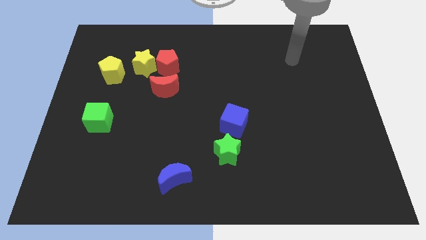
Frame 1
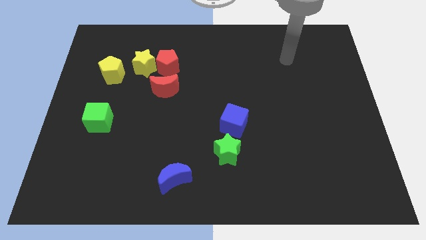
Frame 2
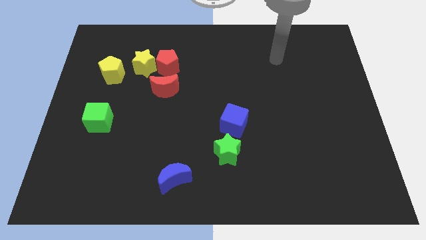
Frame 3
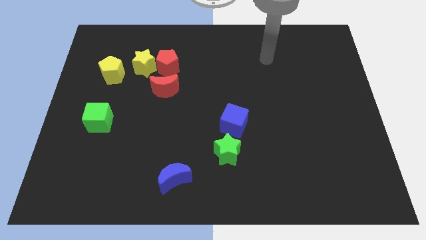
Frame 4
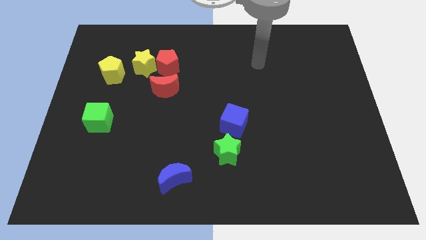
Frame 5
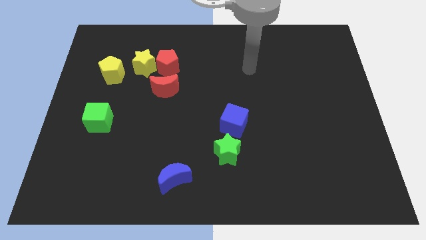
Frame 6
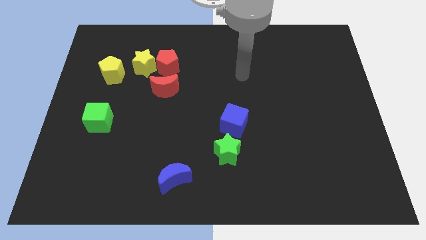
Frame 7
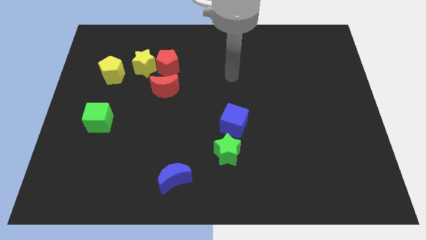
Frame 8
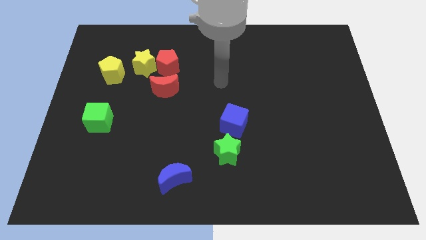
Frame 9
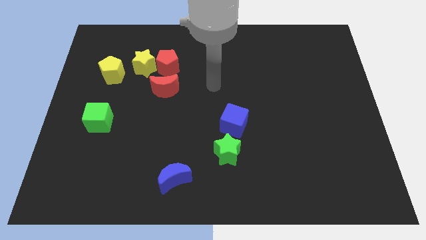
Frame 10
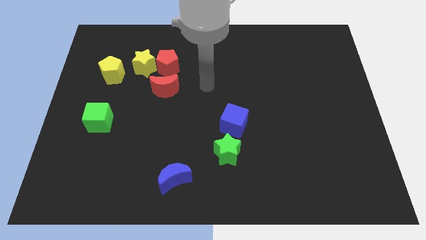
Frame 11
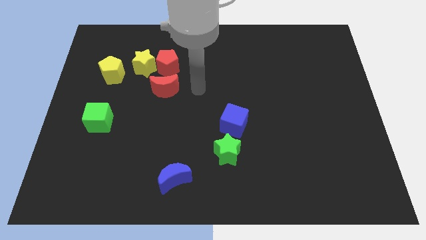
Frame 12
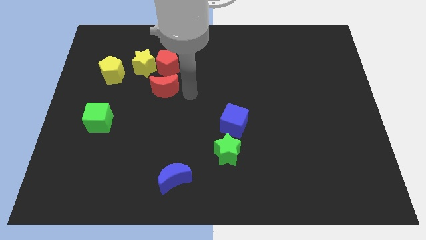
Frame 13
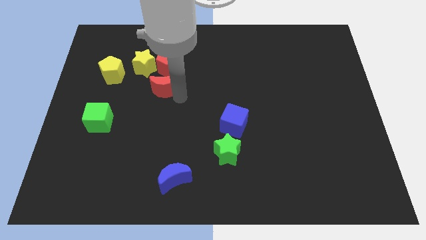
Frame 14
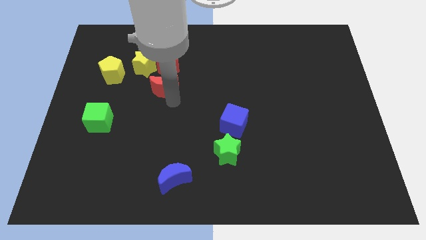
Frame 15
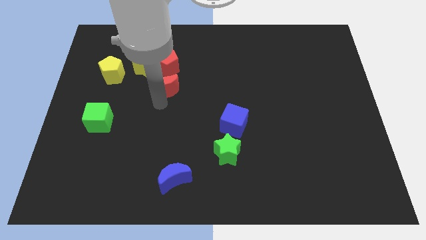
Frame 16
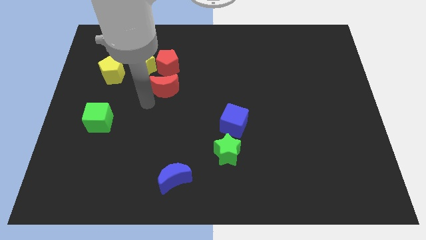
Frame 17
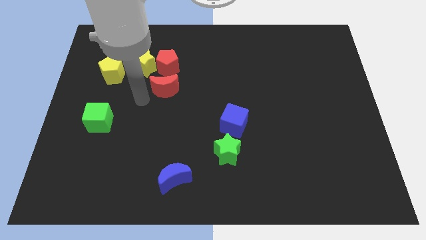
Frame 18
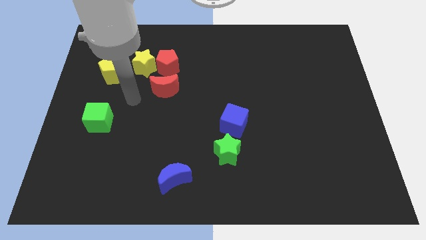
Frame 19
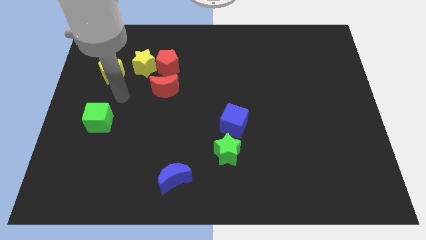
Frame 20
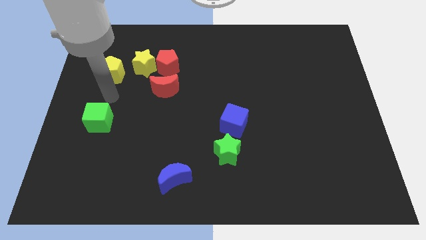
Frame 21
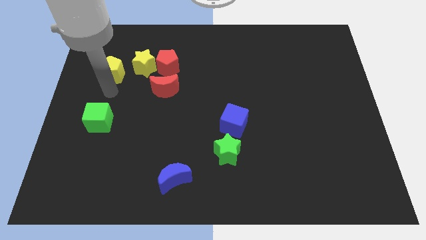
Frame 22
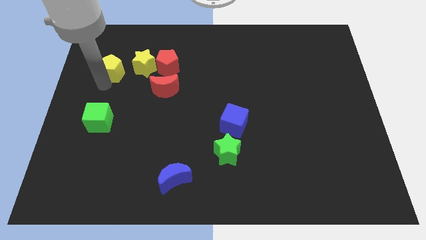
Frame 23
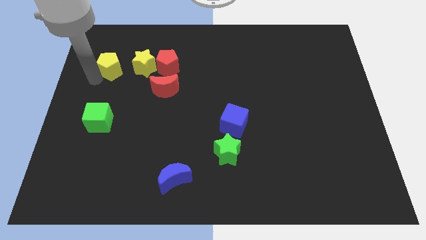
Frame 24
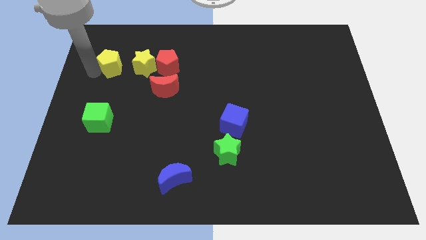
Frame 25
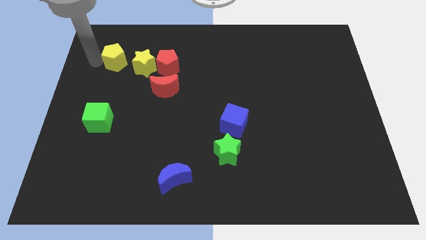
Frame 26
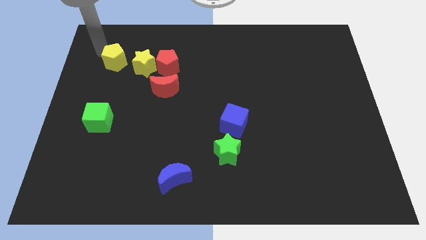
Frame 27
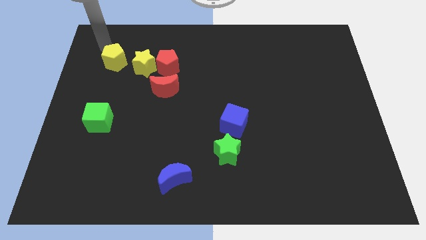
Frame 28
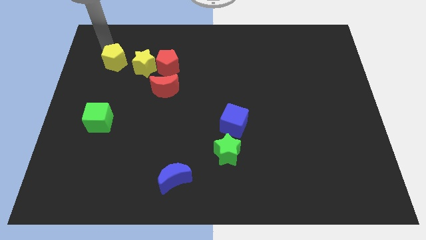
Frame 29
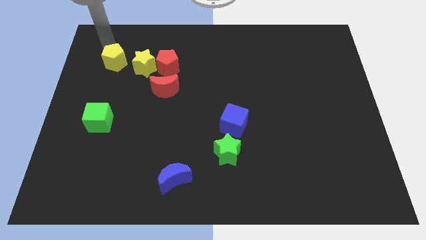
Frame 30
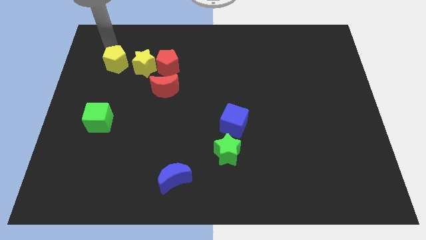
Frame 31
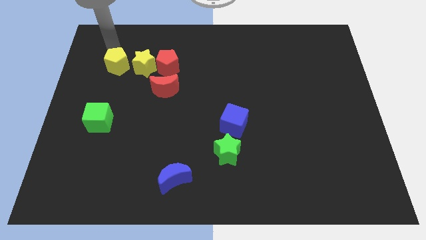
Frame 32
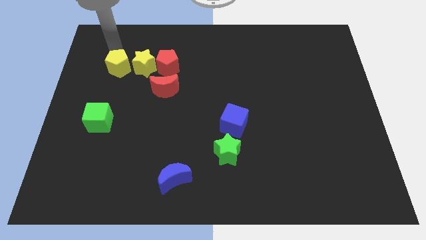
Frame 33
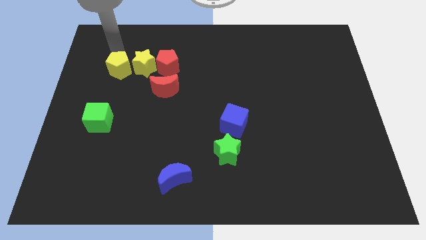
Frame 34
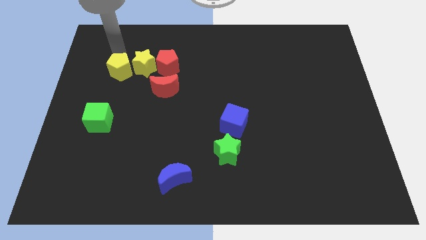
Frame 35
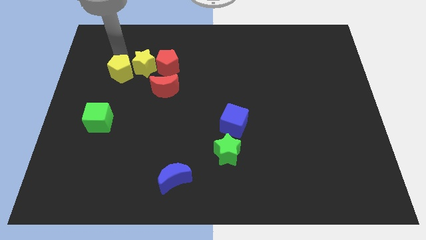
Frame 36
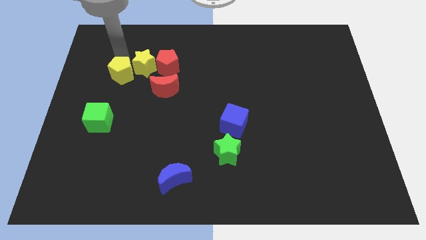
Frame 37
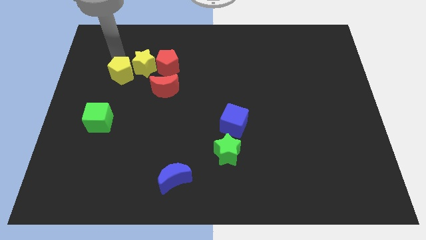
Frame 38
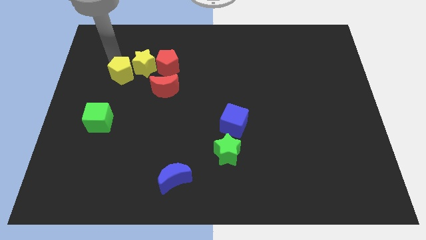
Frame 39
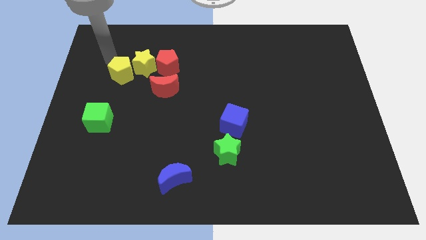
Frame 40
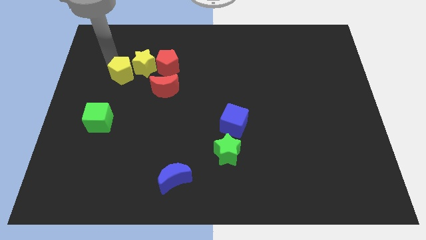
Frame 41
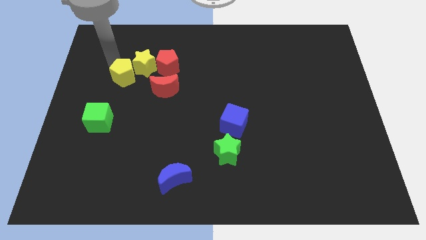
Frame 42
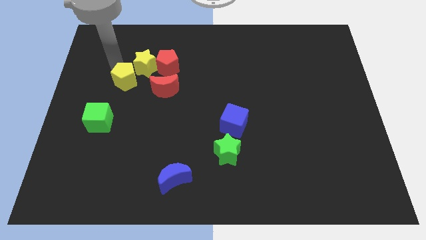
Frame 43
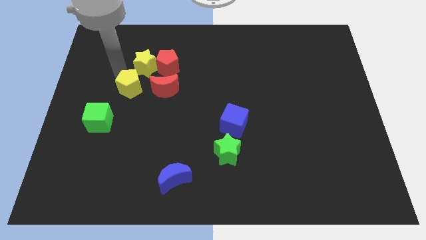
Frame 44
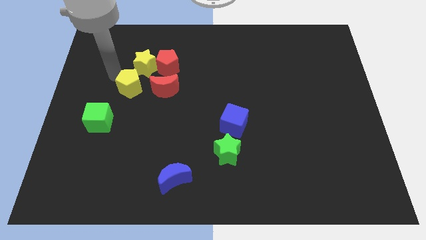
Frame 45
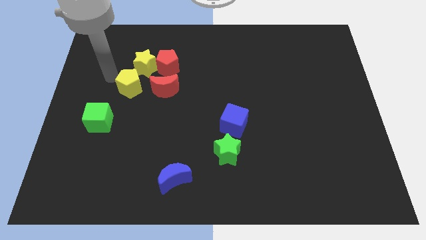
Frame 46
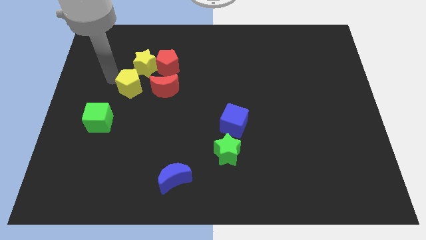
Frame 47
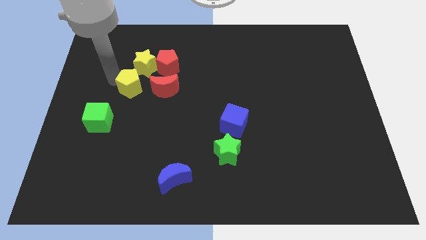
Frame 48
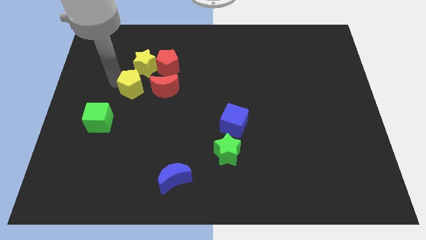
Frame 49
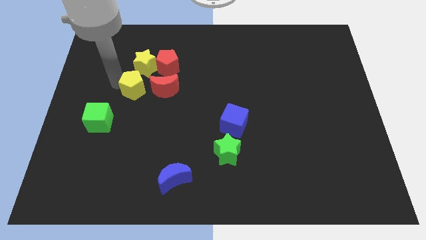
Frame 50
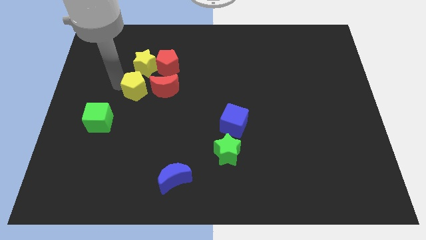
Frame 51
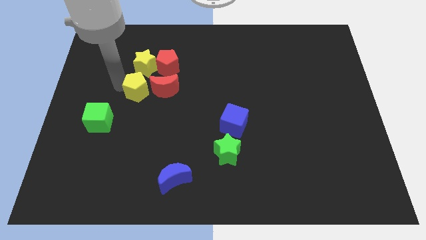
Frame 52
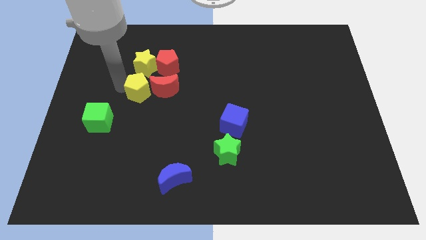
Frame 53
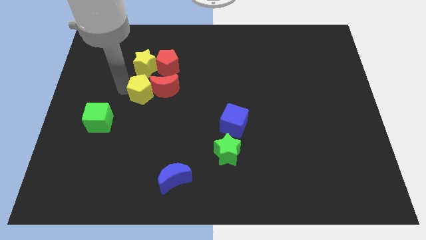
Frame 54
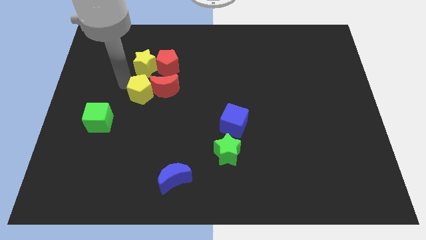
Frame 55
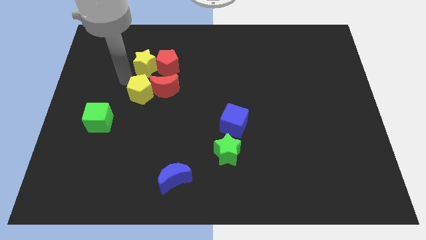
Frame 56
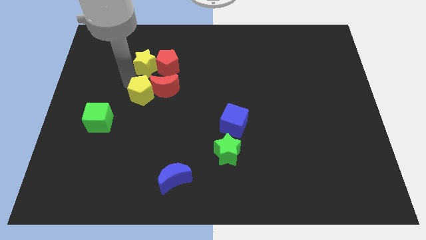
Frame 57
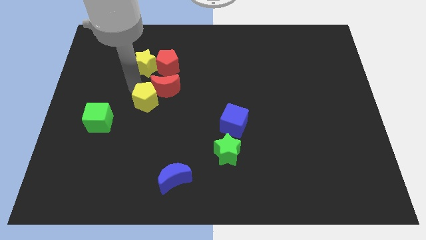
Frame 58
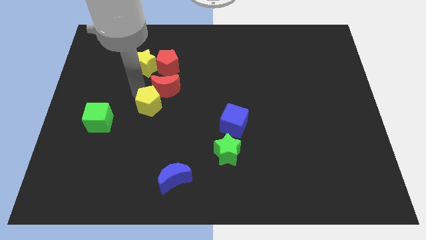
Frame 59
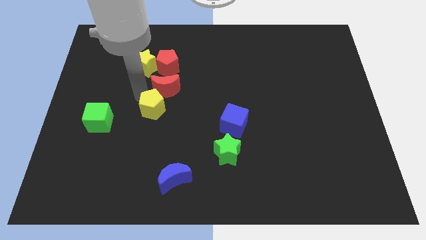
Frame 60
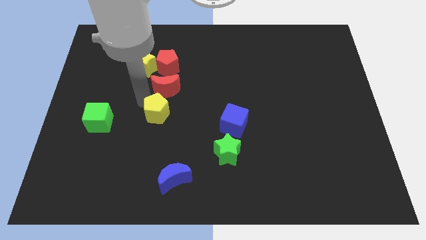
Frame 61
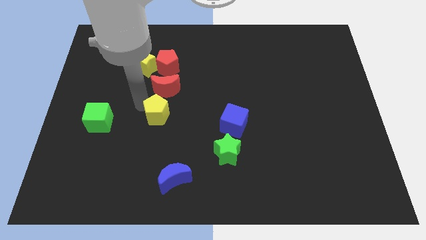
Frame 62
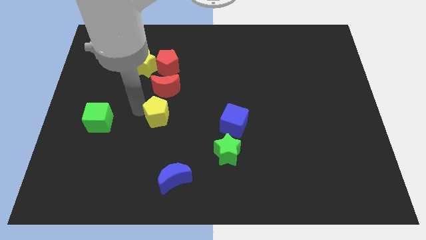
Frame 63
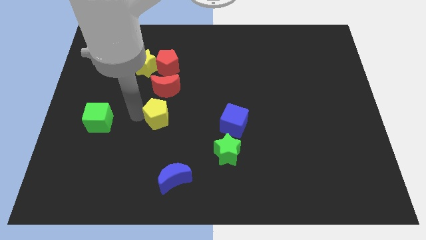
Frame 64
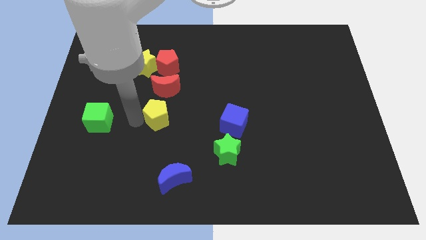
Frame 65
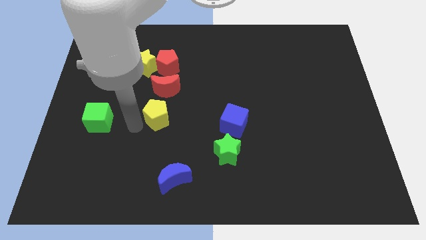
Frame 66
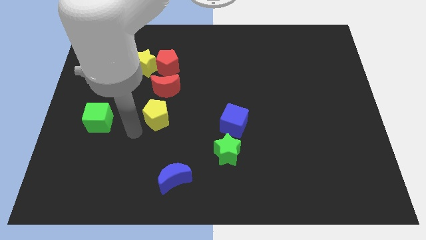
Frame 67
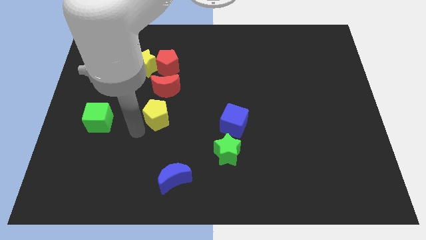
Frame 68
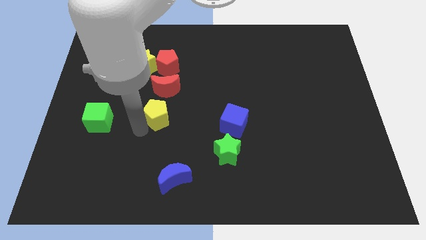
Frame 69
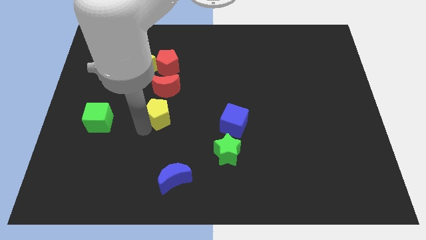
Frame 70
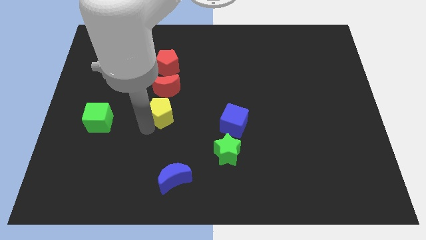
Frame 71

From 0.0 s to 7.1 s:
put the yellow pentagon to the center of the board
